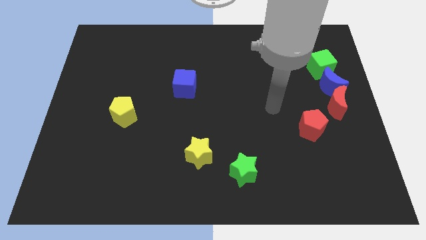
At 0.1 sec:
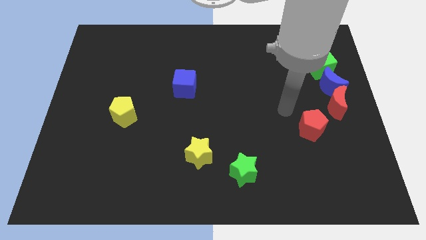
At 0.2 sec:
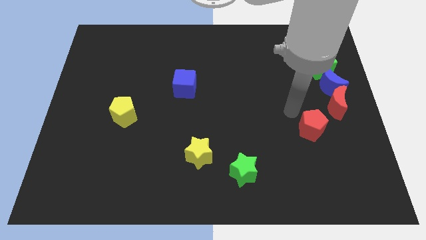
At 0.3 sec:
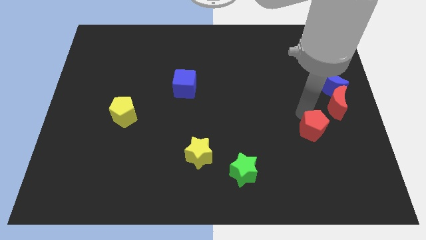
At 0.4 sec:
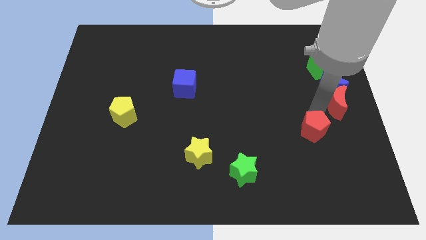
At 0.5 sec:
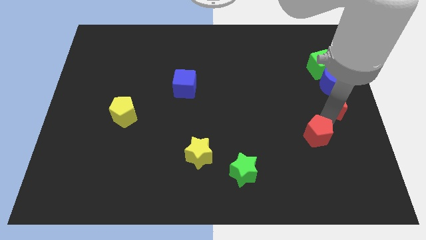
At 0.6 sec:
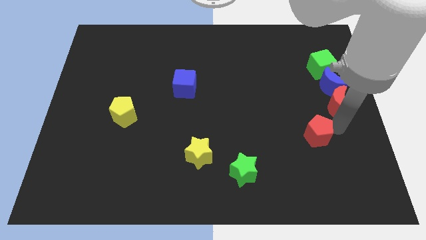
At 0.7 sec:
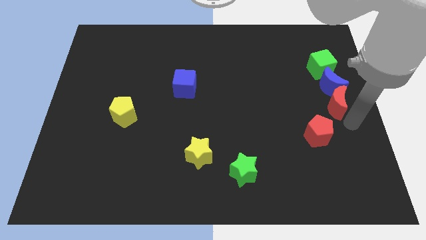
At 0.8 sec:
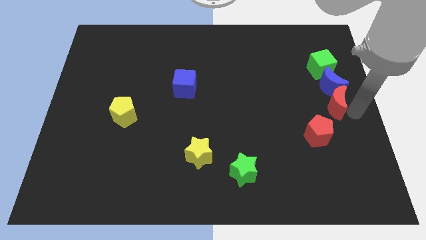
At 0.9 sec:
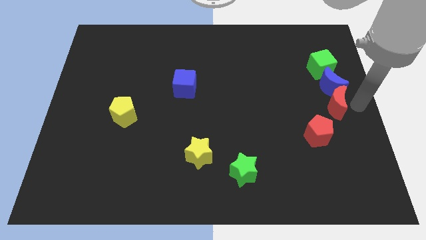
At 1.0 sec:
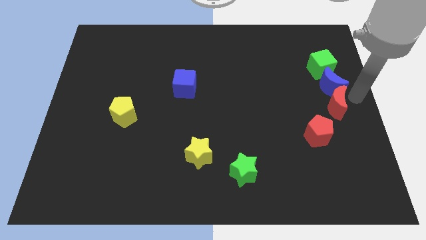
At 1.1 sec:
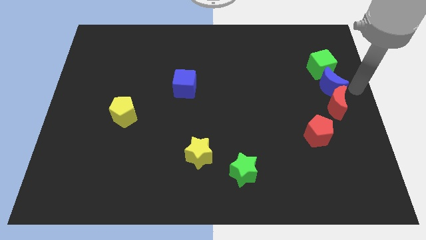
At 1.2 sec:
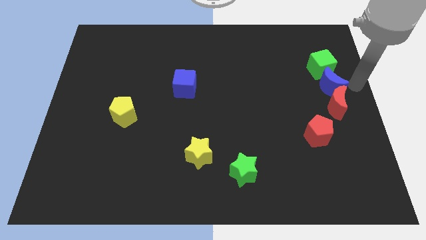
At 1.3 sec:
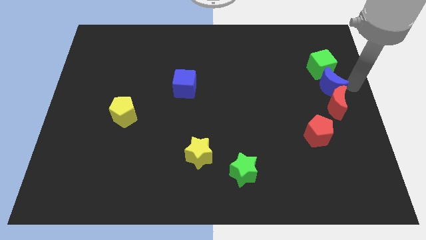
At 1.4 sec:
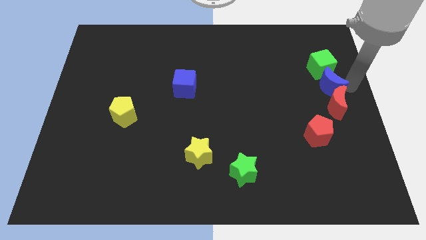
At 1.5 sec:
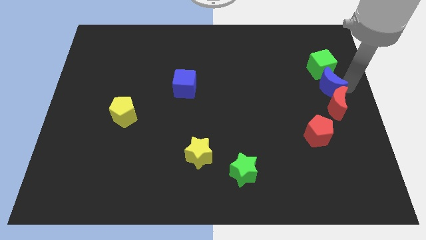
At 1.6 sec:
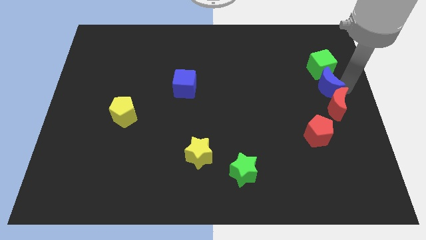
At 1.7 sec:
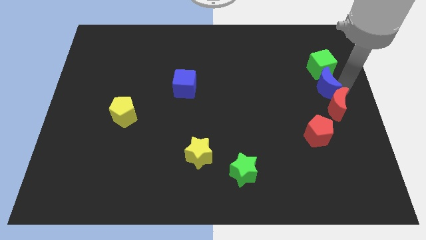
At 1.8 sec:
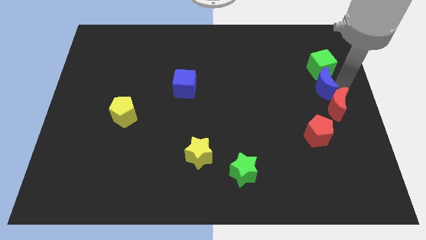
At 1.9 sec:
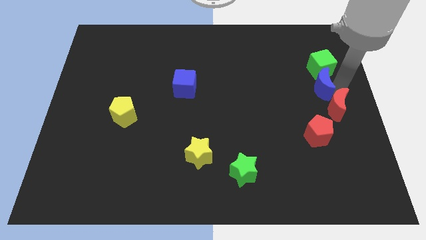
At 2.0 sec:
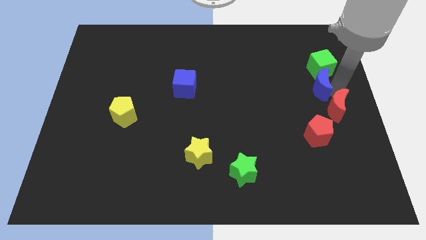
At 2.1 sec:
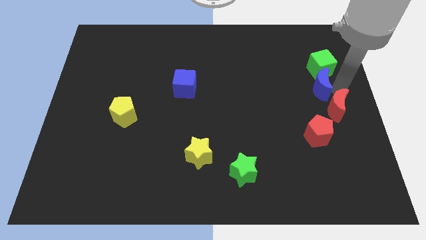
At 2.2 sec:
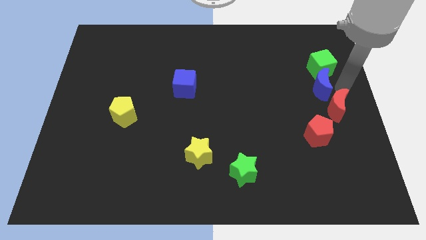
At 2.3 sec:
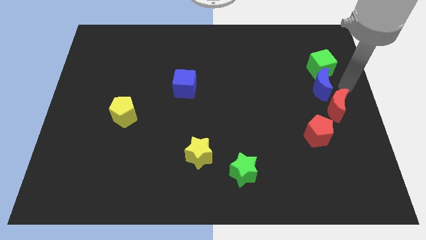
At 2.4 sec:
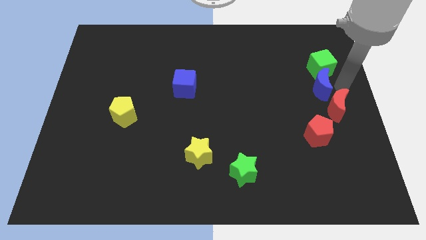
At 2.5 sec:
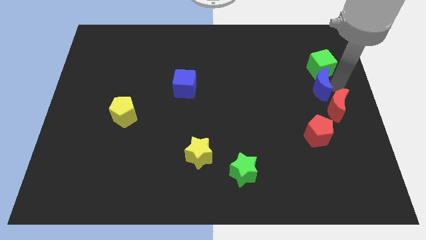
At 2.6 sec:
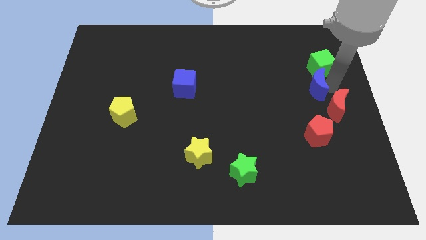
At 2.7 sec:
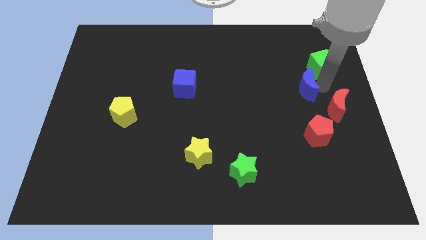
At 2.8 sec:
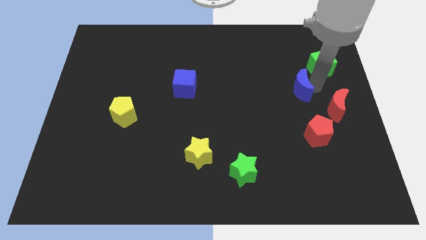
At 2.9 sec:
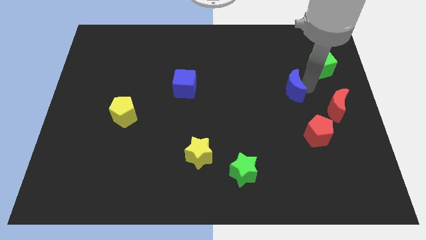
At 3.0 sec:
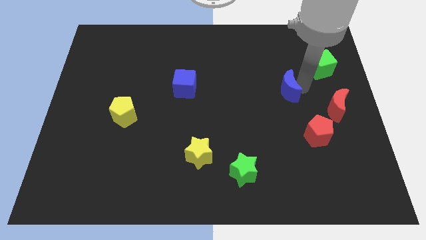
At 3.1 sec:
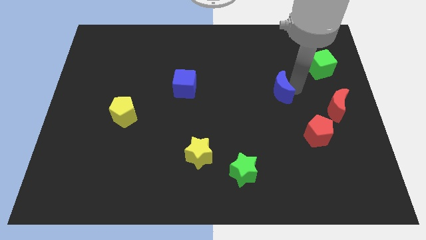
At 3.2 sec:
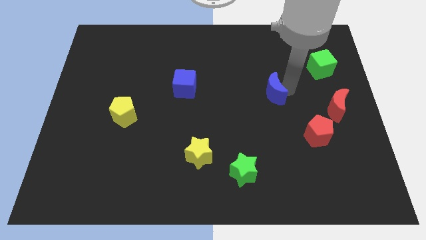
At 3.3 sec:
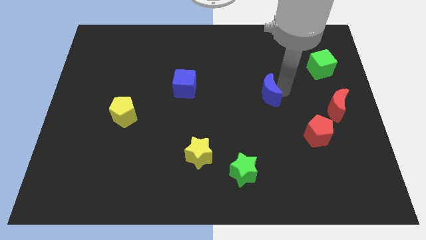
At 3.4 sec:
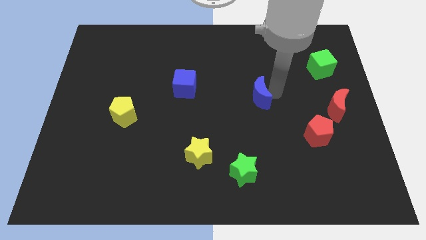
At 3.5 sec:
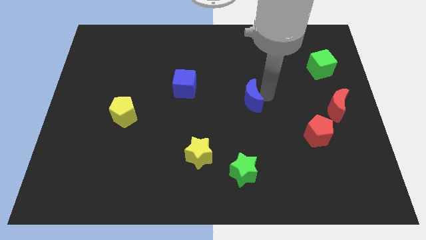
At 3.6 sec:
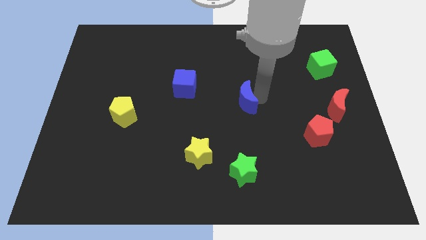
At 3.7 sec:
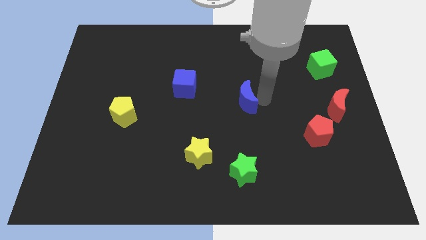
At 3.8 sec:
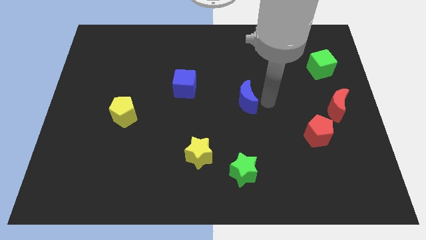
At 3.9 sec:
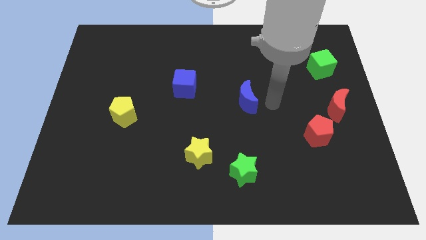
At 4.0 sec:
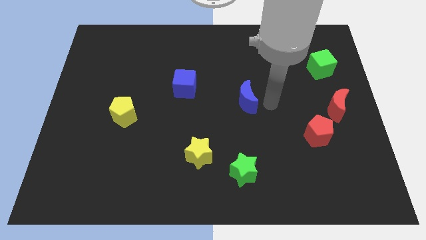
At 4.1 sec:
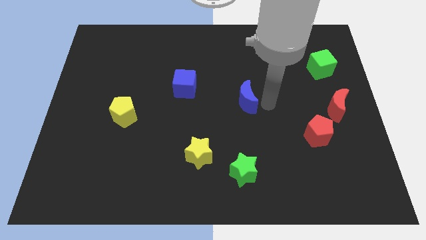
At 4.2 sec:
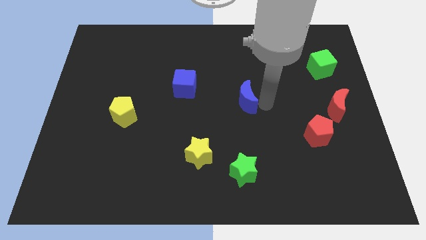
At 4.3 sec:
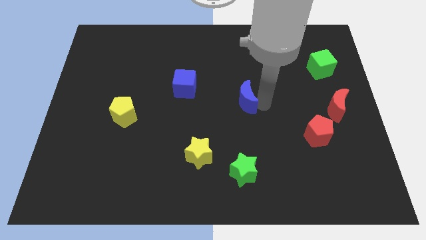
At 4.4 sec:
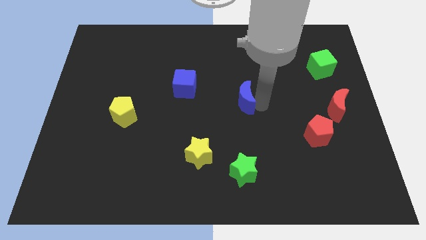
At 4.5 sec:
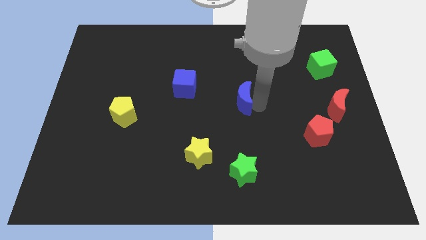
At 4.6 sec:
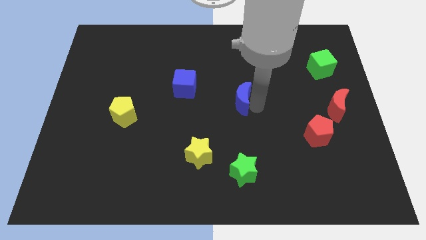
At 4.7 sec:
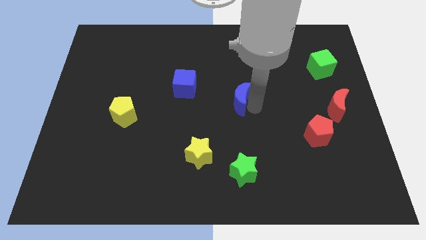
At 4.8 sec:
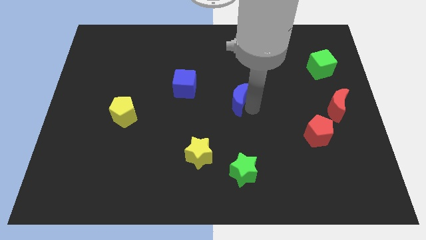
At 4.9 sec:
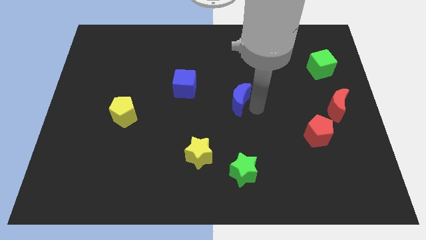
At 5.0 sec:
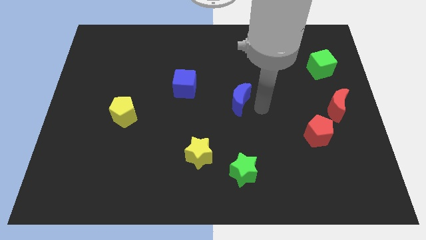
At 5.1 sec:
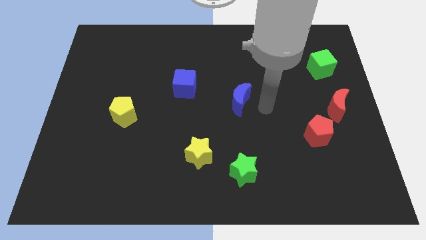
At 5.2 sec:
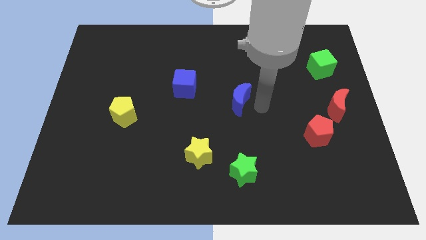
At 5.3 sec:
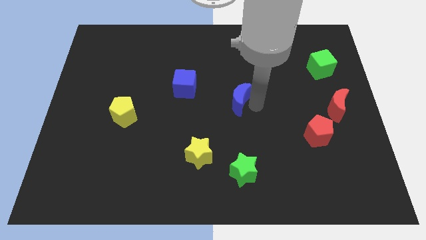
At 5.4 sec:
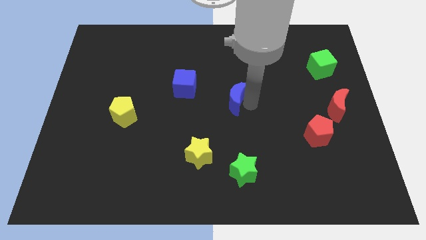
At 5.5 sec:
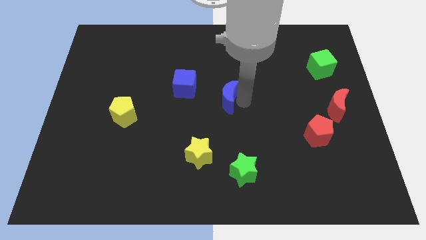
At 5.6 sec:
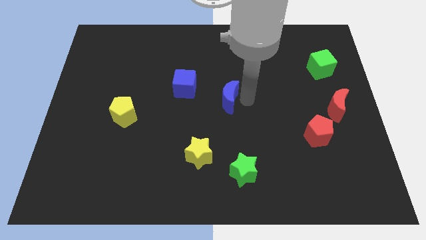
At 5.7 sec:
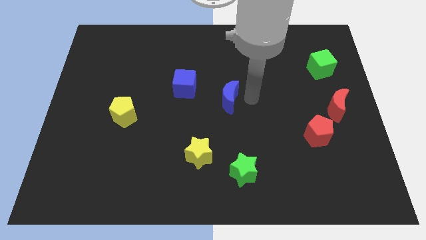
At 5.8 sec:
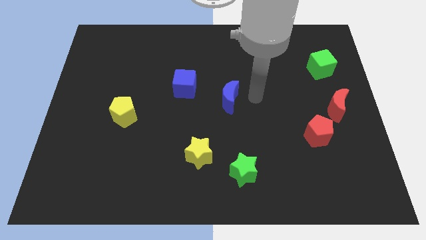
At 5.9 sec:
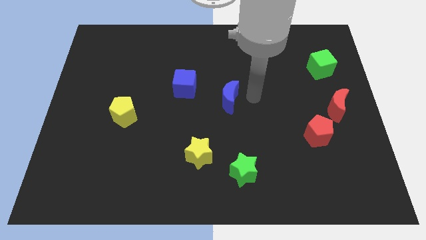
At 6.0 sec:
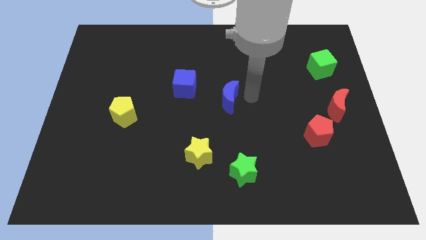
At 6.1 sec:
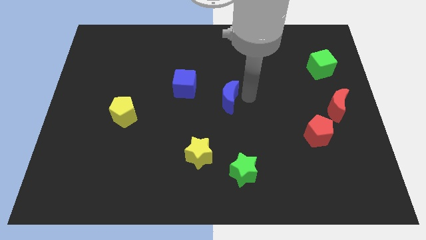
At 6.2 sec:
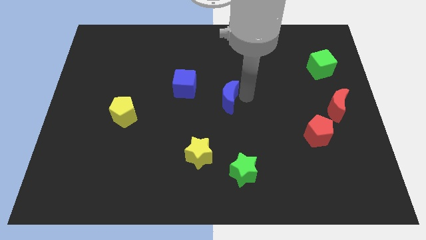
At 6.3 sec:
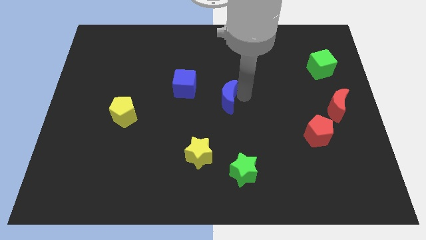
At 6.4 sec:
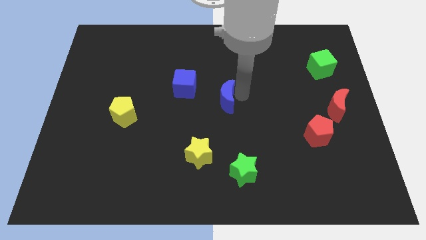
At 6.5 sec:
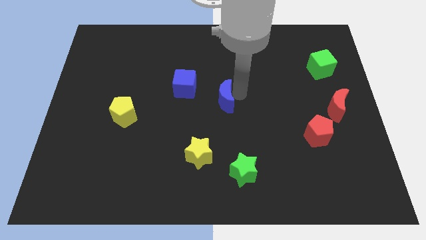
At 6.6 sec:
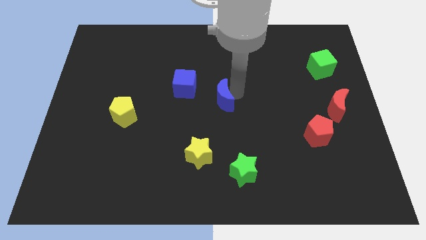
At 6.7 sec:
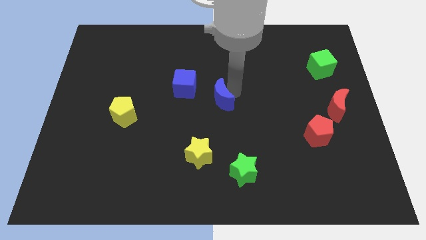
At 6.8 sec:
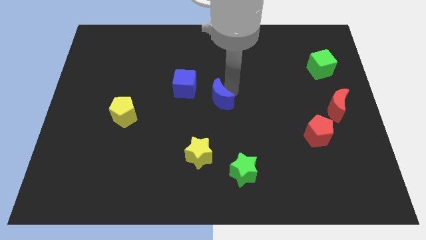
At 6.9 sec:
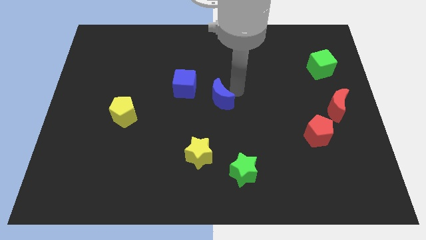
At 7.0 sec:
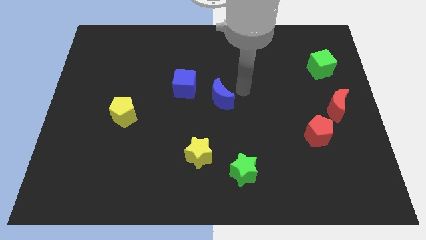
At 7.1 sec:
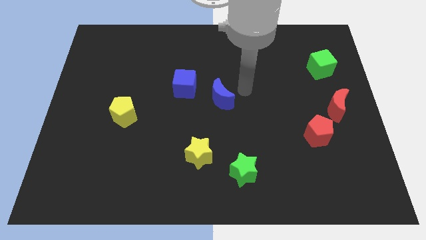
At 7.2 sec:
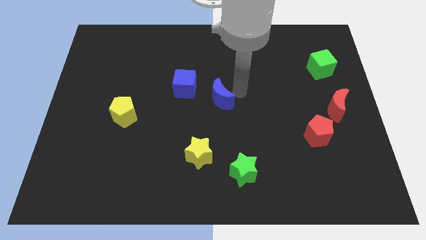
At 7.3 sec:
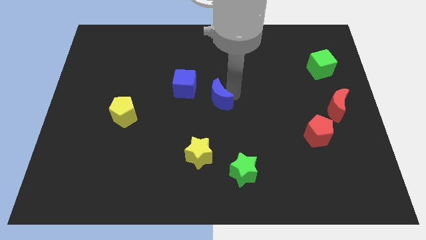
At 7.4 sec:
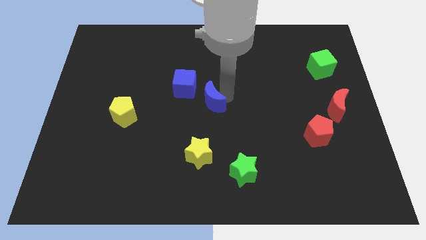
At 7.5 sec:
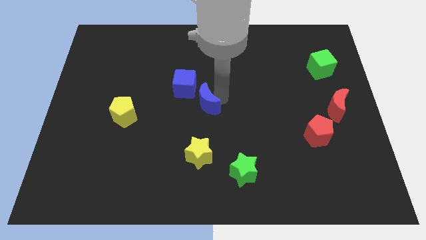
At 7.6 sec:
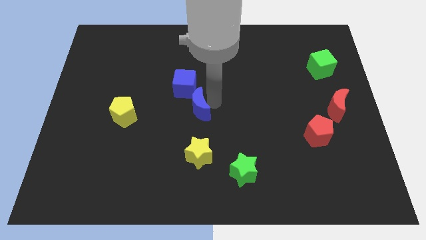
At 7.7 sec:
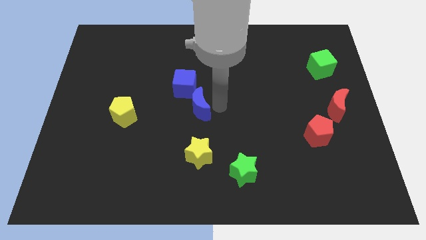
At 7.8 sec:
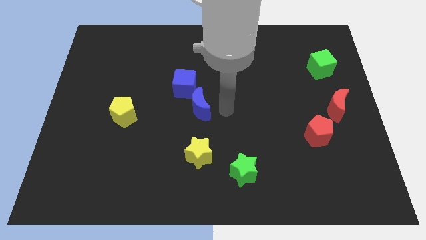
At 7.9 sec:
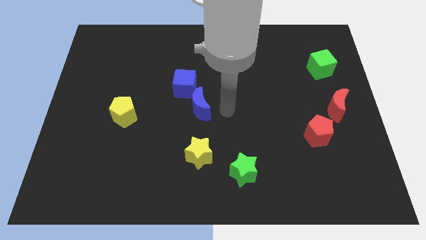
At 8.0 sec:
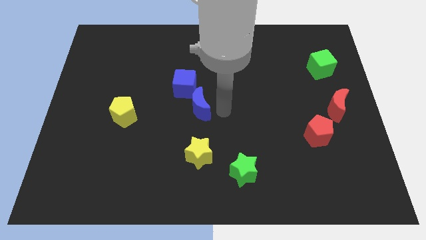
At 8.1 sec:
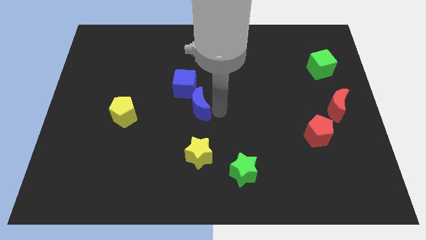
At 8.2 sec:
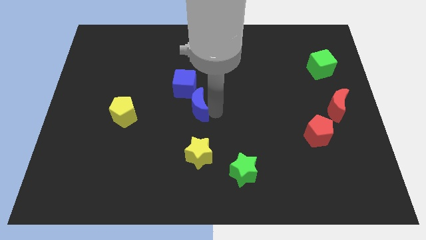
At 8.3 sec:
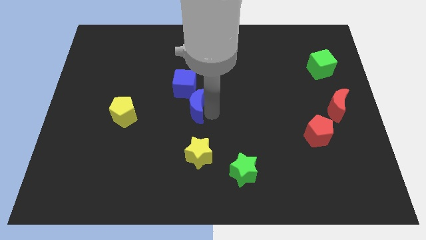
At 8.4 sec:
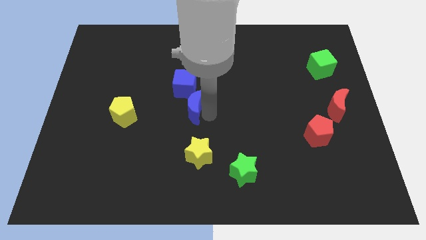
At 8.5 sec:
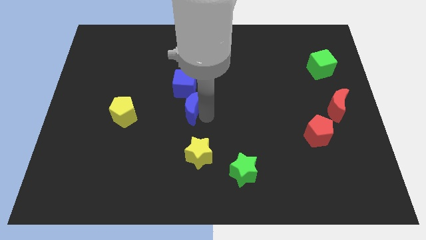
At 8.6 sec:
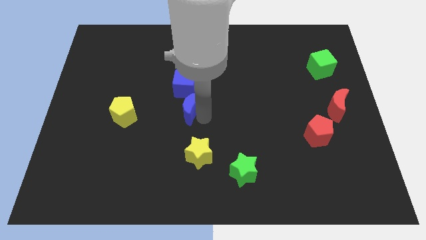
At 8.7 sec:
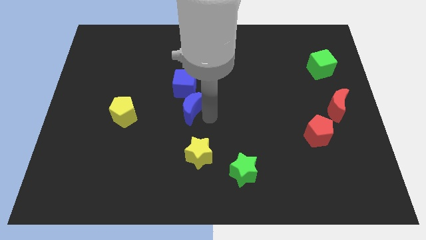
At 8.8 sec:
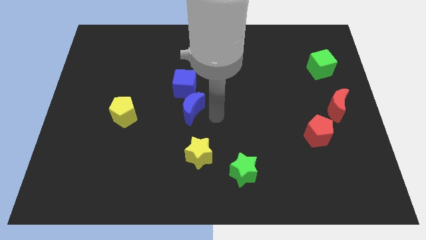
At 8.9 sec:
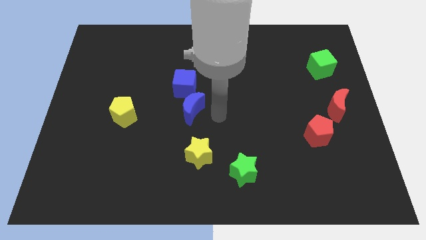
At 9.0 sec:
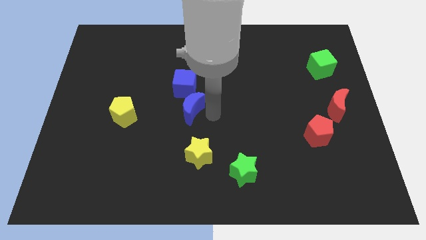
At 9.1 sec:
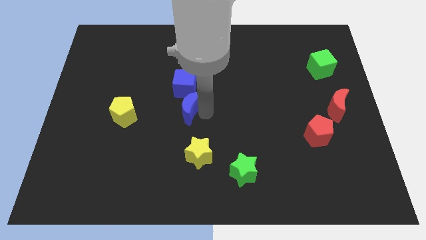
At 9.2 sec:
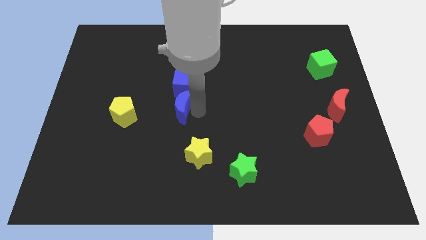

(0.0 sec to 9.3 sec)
move the blue moon to the bottom left of the blue cube
